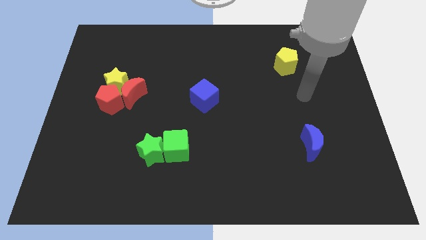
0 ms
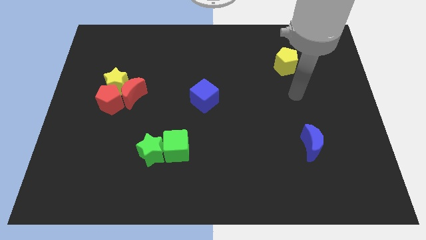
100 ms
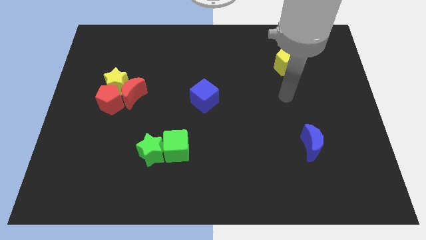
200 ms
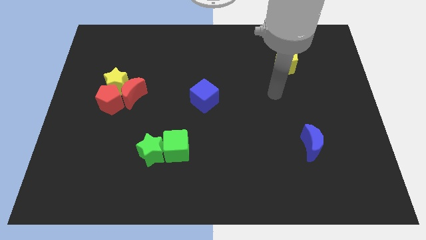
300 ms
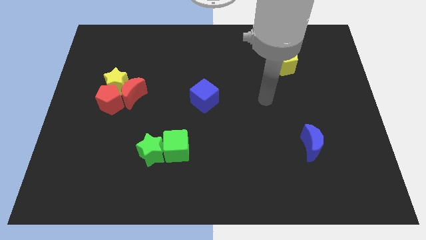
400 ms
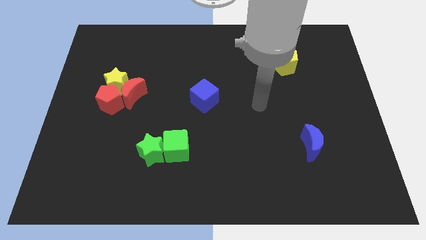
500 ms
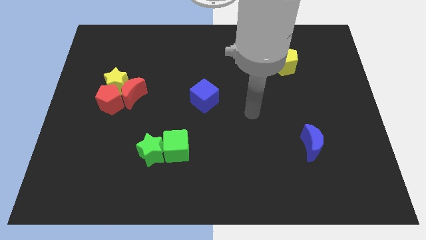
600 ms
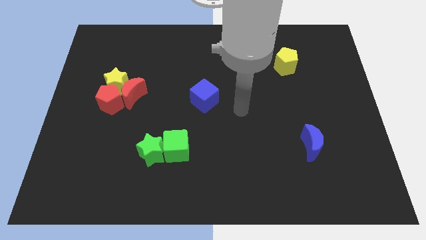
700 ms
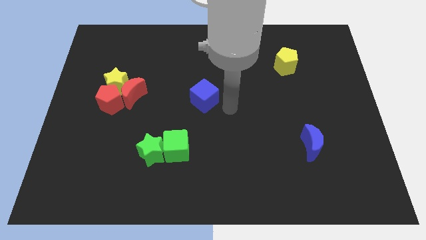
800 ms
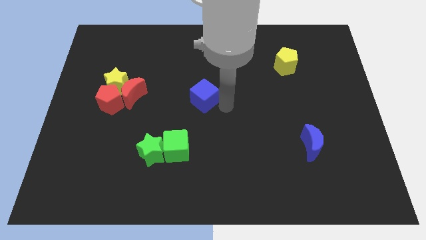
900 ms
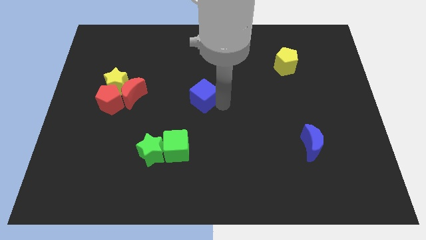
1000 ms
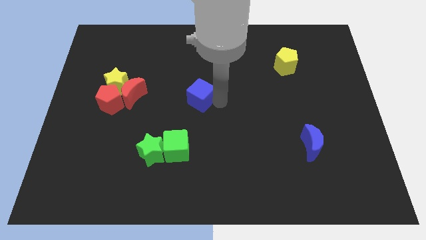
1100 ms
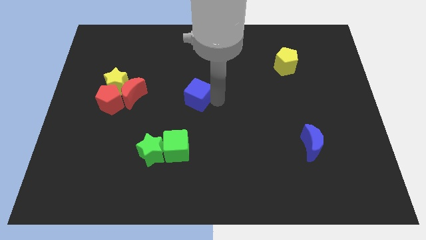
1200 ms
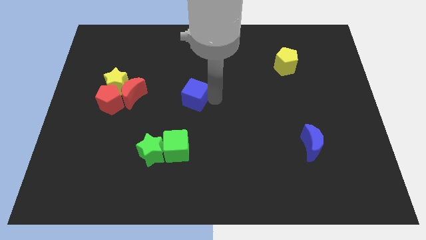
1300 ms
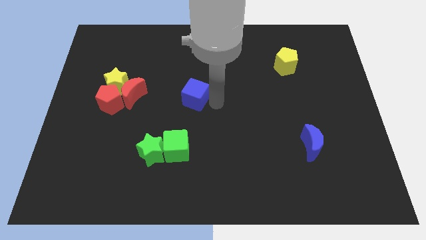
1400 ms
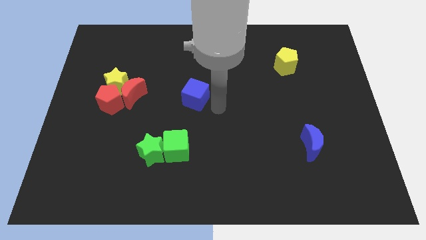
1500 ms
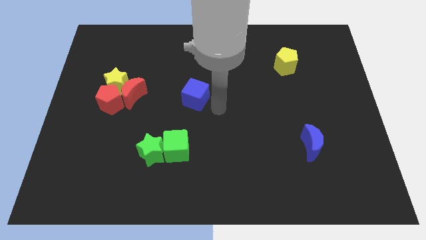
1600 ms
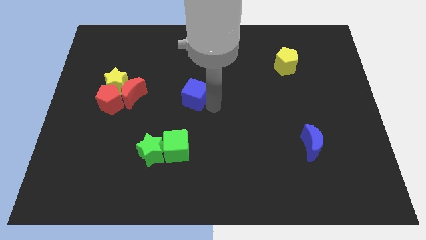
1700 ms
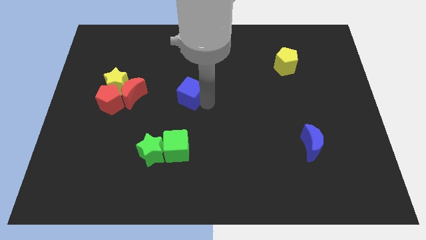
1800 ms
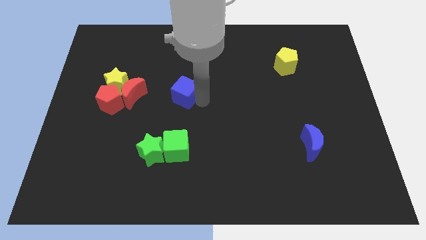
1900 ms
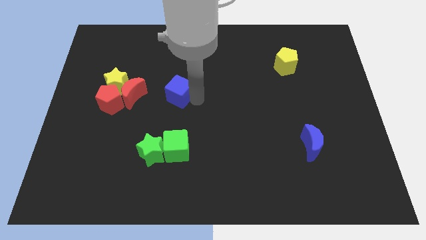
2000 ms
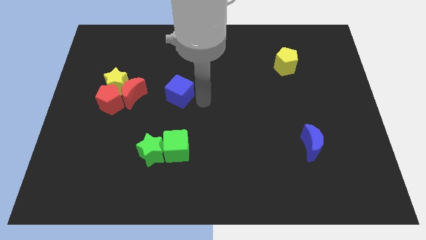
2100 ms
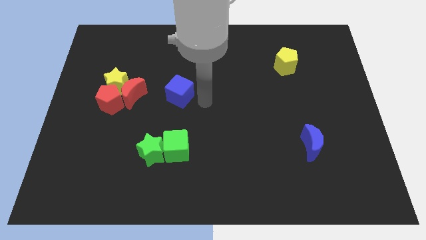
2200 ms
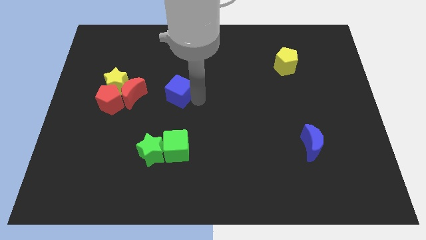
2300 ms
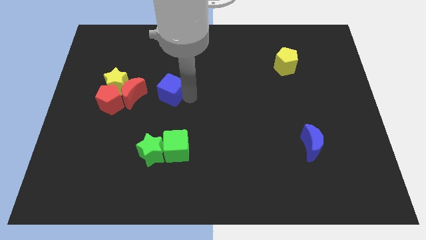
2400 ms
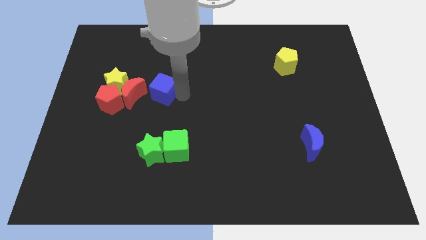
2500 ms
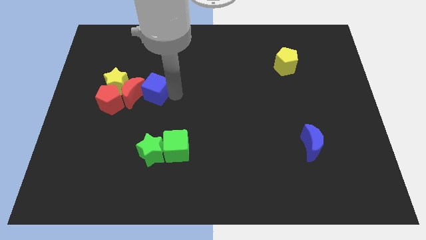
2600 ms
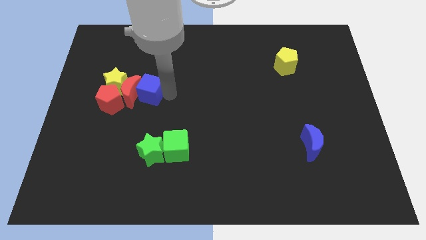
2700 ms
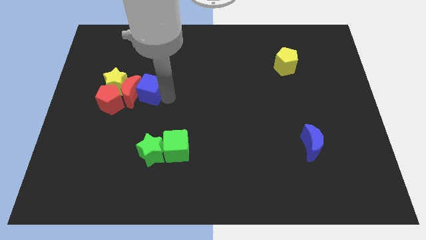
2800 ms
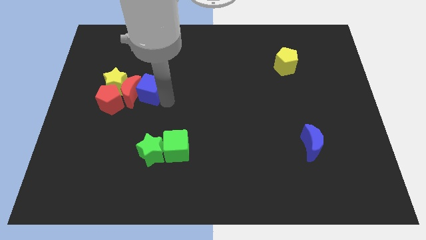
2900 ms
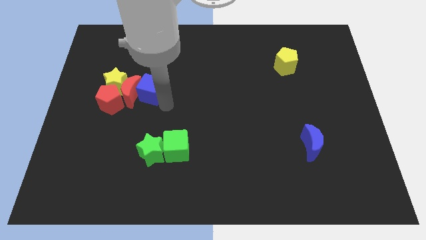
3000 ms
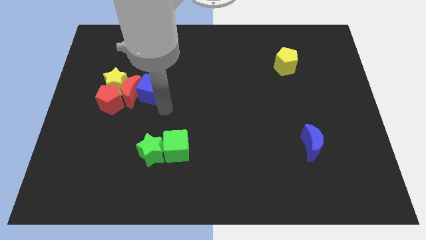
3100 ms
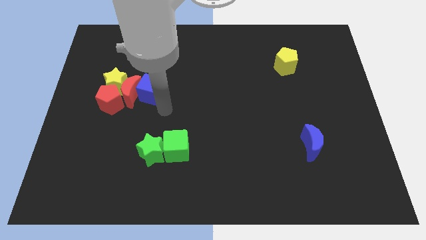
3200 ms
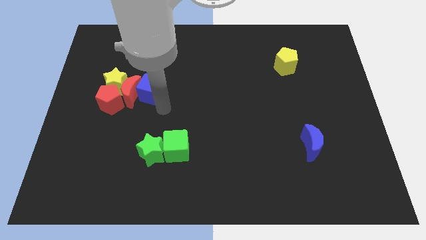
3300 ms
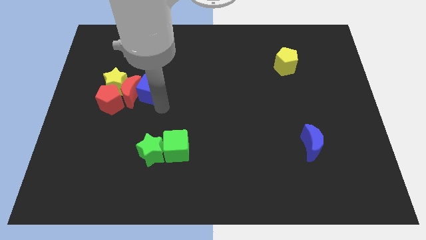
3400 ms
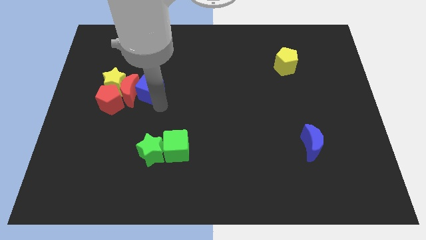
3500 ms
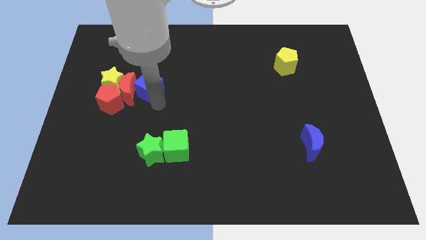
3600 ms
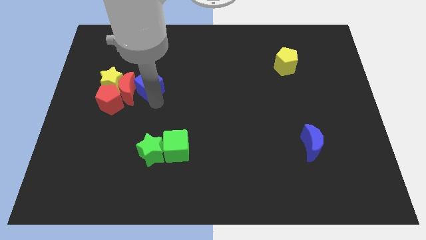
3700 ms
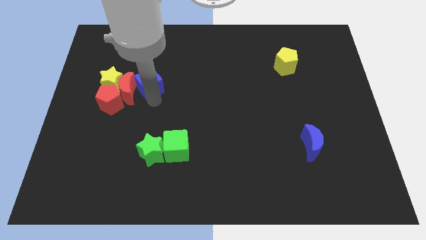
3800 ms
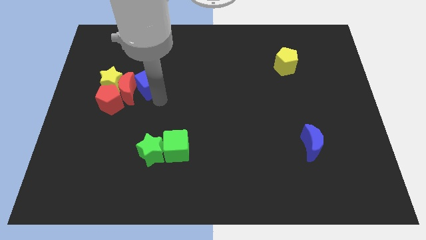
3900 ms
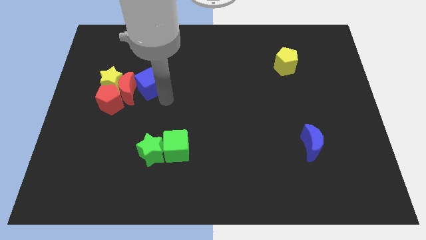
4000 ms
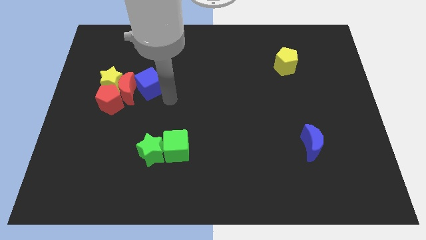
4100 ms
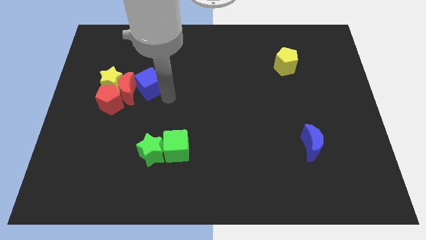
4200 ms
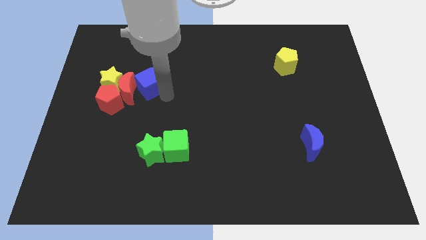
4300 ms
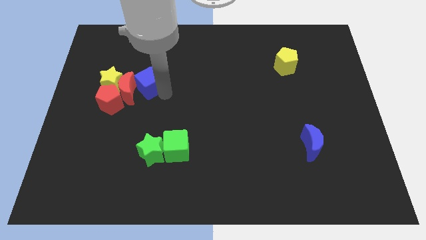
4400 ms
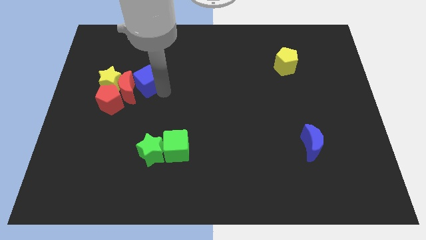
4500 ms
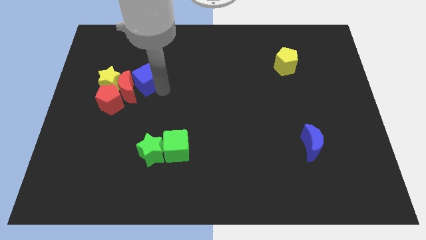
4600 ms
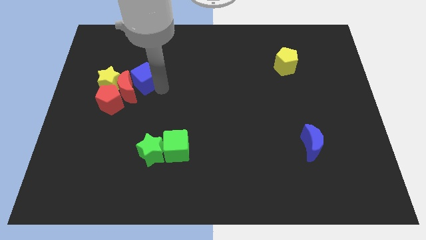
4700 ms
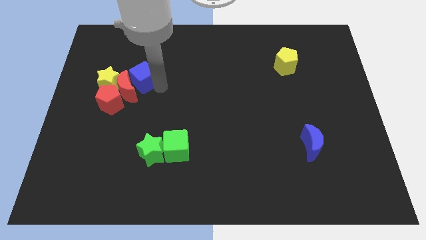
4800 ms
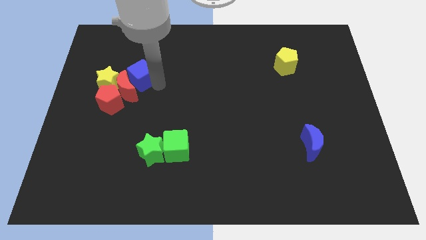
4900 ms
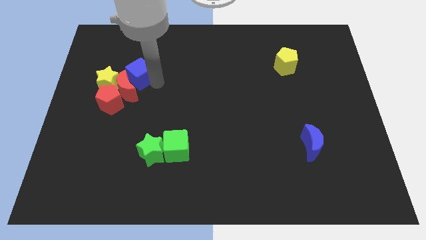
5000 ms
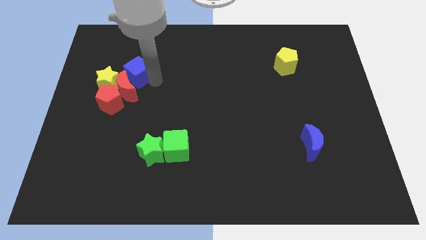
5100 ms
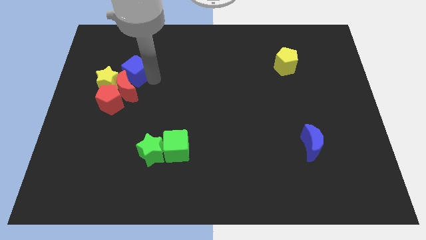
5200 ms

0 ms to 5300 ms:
push the blue cube to the top side of the red pentagon
